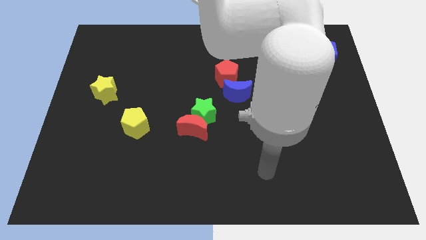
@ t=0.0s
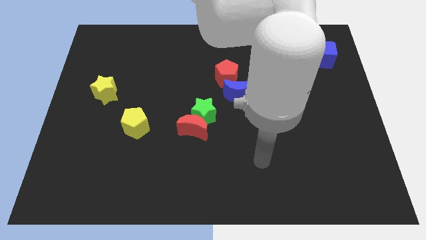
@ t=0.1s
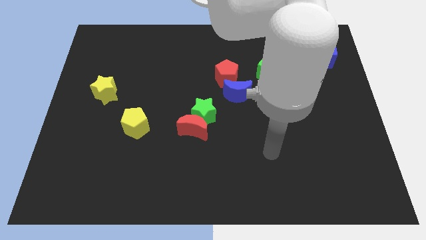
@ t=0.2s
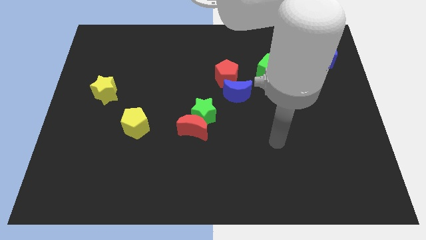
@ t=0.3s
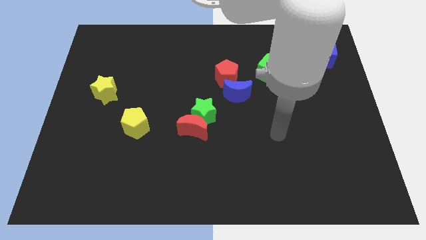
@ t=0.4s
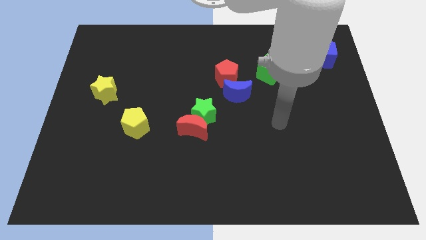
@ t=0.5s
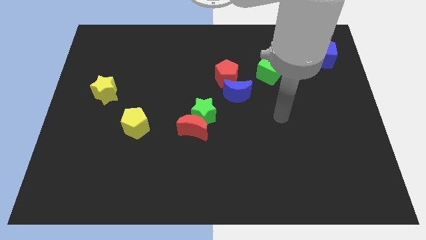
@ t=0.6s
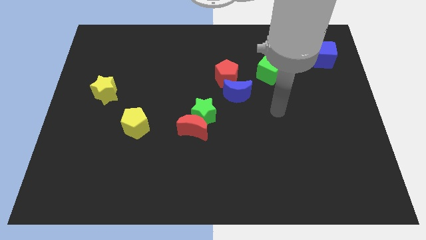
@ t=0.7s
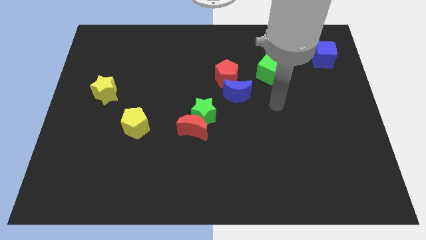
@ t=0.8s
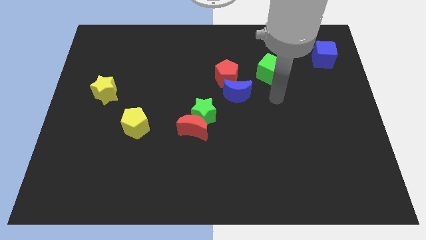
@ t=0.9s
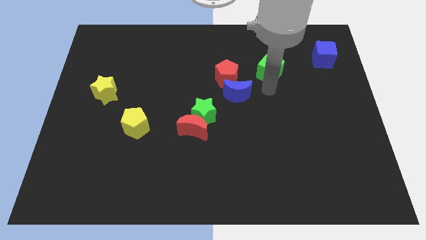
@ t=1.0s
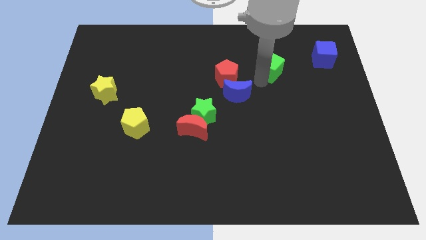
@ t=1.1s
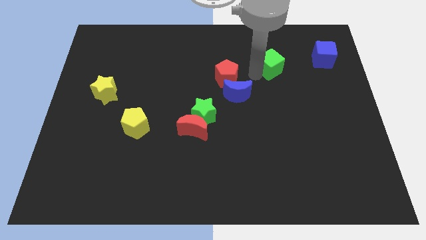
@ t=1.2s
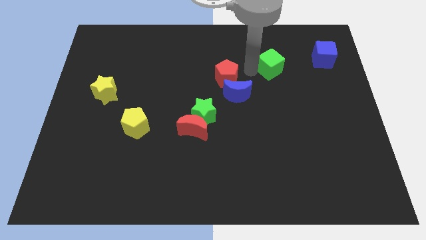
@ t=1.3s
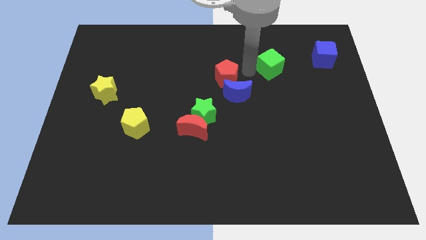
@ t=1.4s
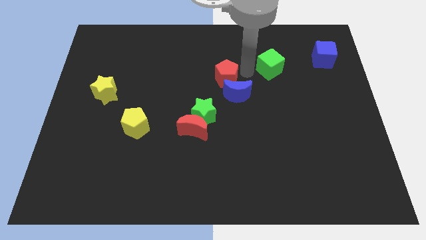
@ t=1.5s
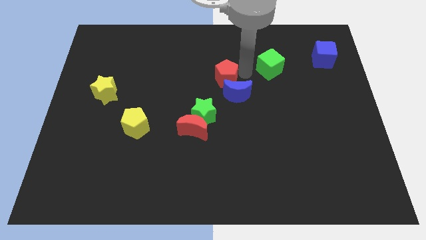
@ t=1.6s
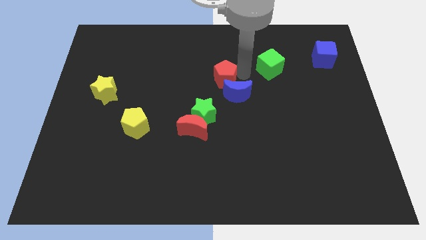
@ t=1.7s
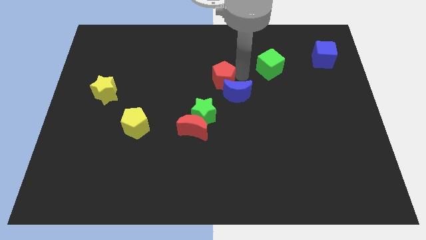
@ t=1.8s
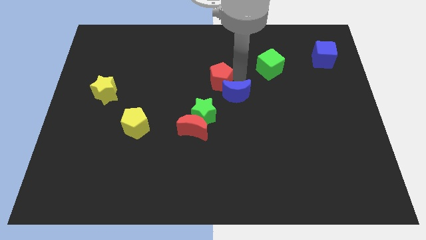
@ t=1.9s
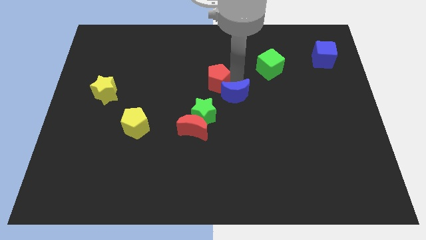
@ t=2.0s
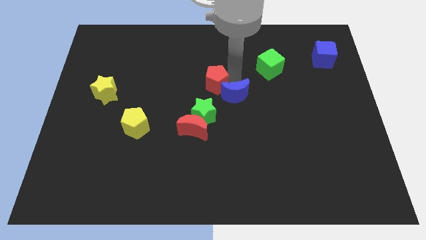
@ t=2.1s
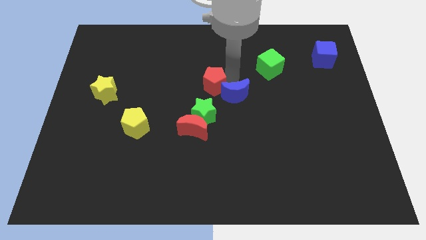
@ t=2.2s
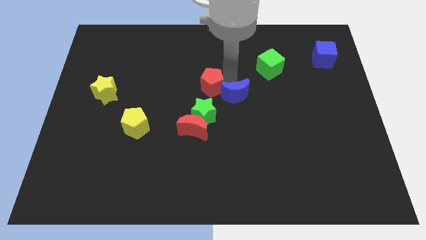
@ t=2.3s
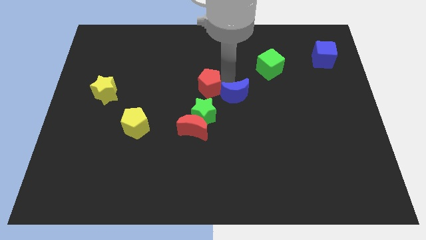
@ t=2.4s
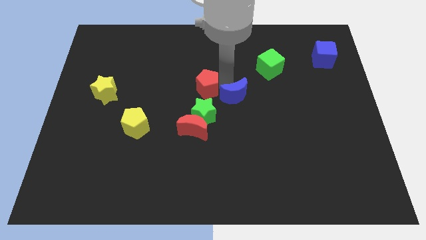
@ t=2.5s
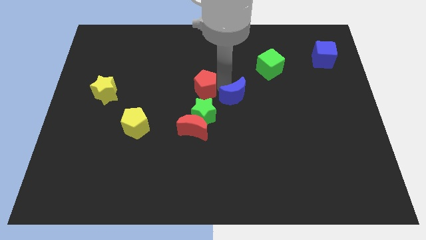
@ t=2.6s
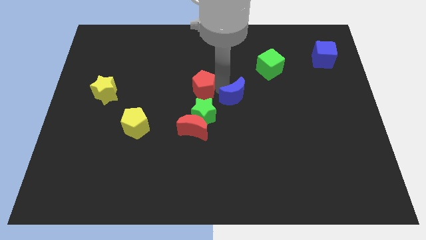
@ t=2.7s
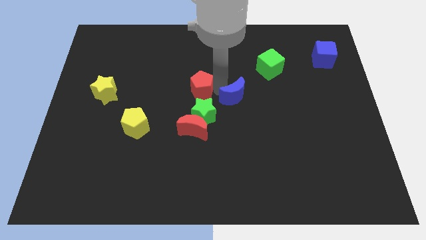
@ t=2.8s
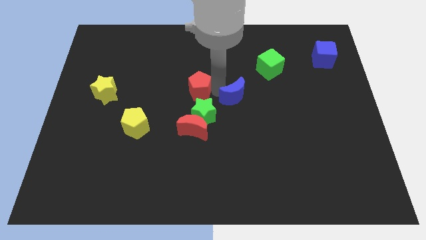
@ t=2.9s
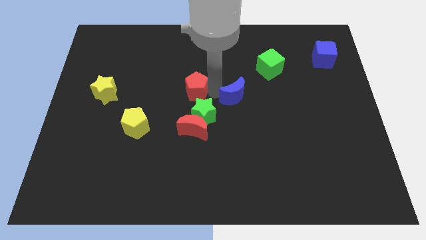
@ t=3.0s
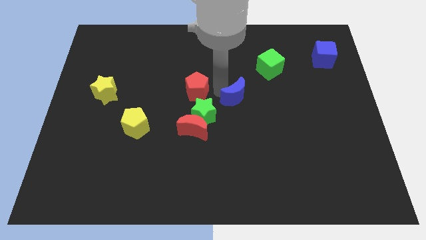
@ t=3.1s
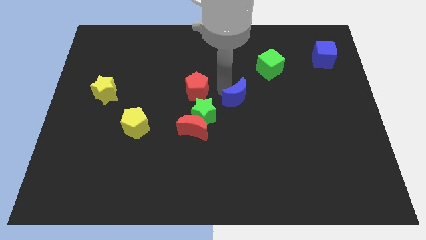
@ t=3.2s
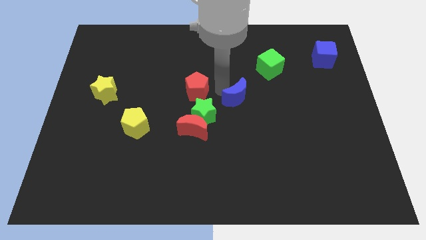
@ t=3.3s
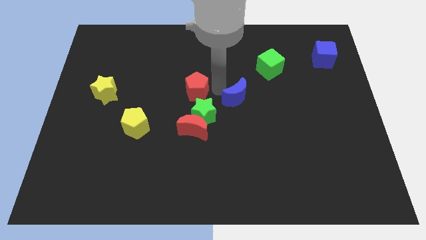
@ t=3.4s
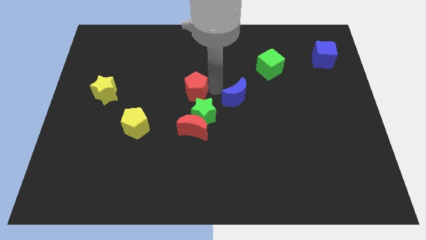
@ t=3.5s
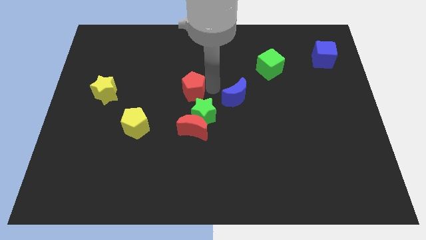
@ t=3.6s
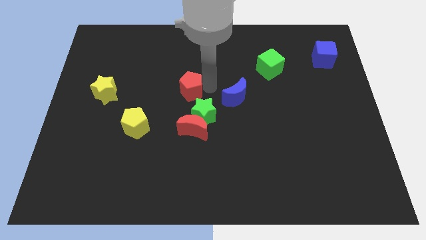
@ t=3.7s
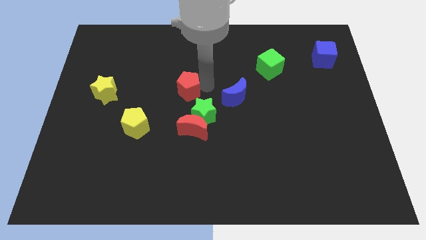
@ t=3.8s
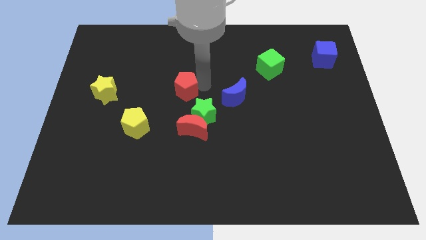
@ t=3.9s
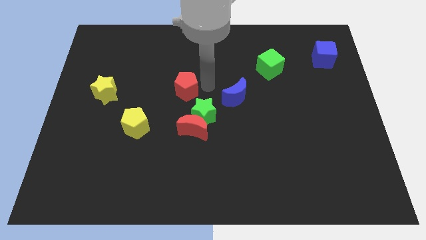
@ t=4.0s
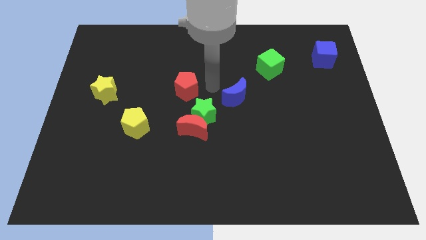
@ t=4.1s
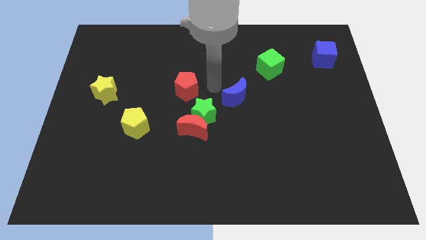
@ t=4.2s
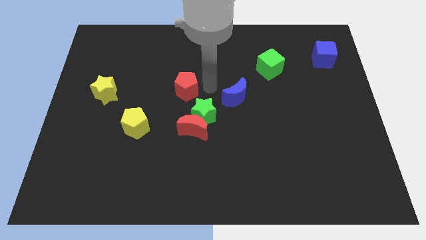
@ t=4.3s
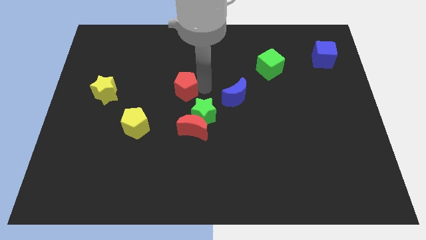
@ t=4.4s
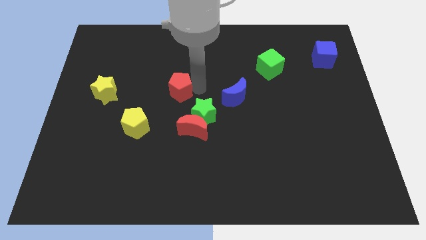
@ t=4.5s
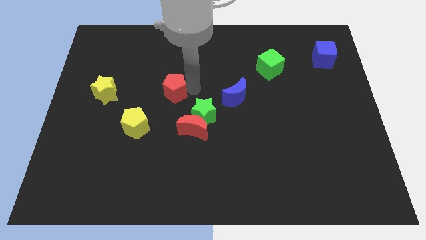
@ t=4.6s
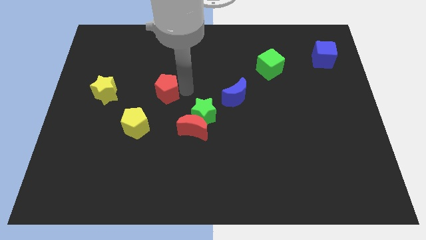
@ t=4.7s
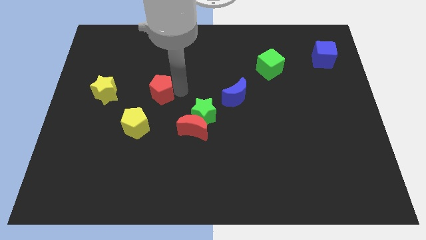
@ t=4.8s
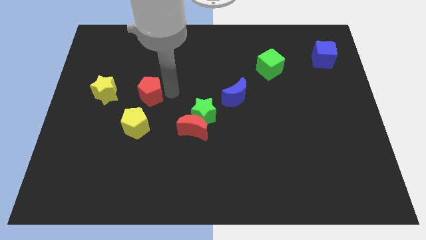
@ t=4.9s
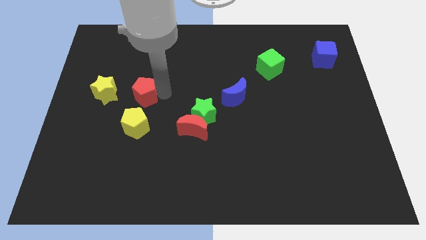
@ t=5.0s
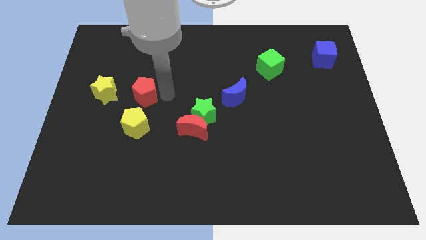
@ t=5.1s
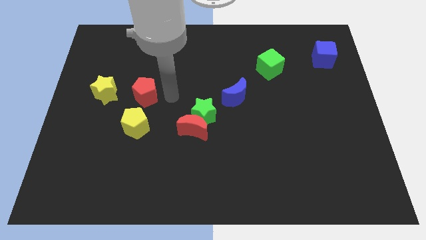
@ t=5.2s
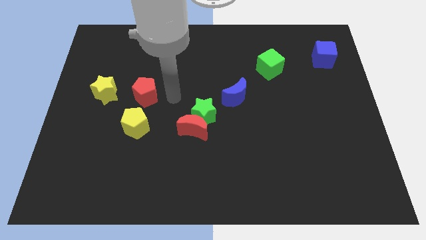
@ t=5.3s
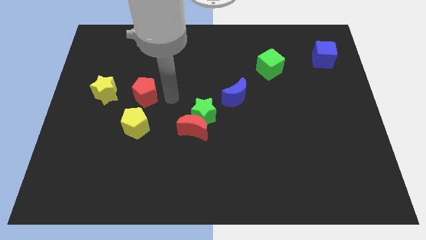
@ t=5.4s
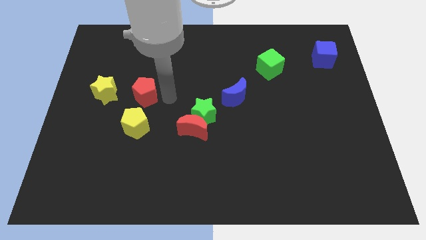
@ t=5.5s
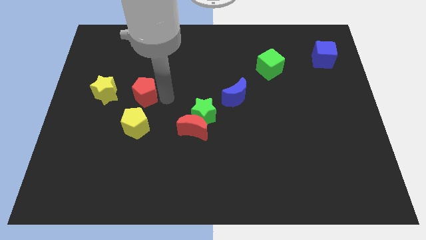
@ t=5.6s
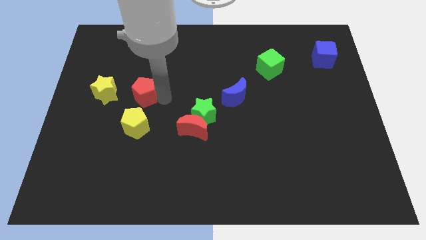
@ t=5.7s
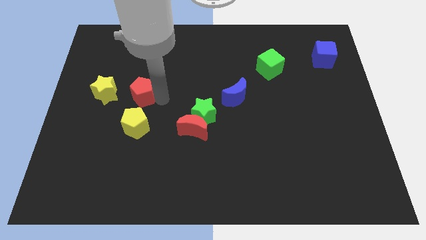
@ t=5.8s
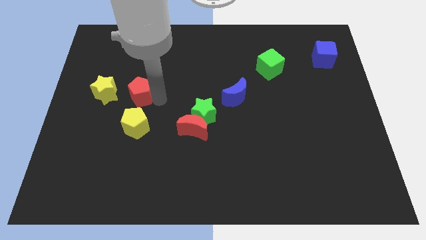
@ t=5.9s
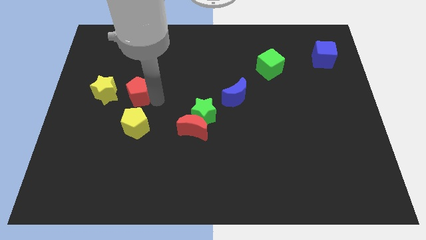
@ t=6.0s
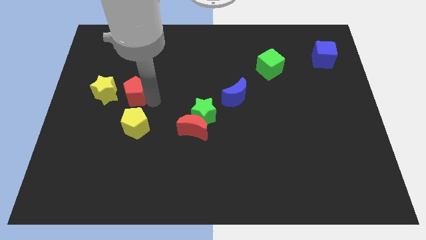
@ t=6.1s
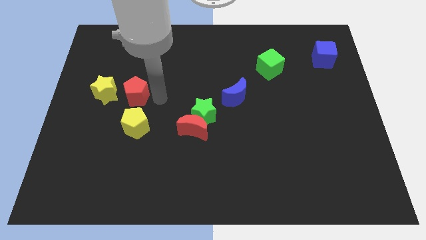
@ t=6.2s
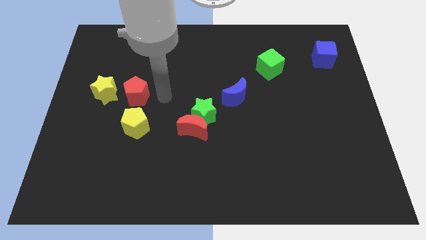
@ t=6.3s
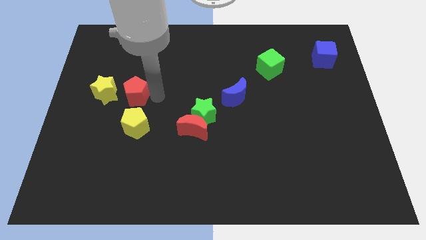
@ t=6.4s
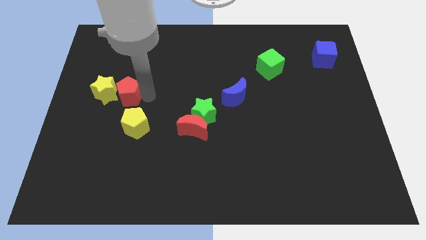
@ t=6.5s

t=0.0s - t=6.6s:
put the red pentagon towards the yellow star

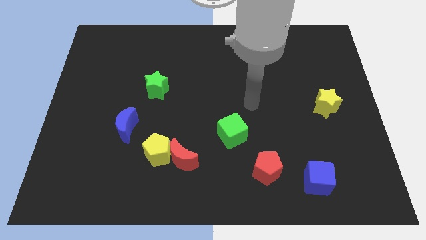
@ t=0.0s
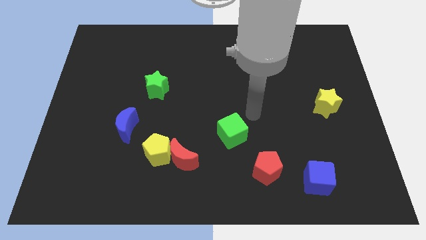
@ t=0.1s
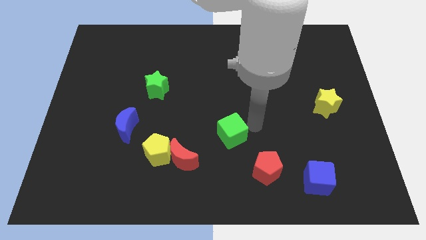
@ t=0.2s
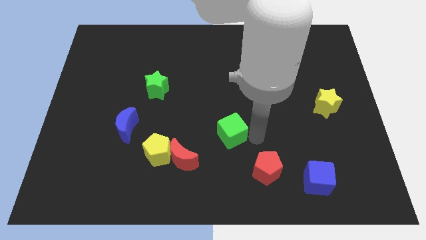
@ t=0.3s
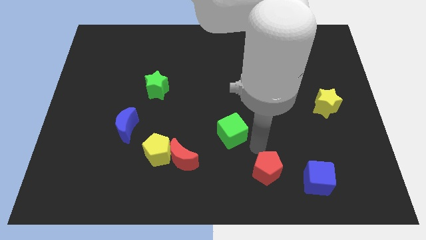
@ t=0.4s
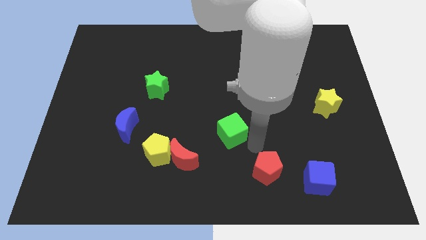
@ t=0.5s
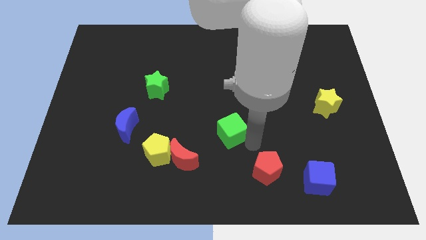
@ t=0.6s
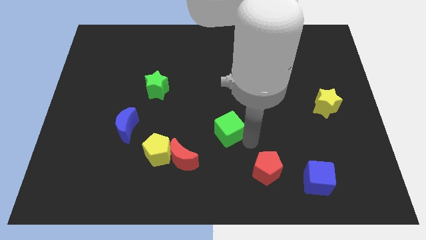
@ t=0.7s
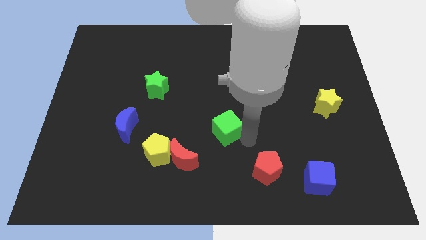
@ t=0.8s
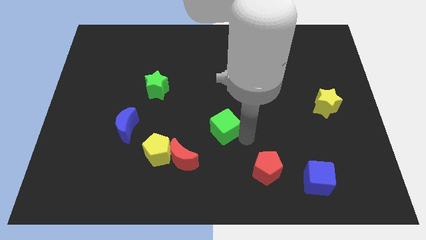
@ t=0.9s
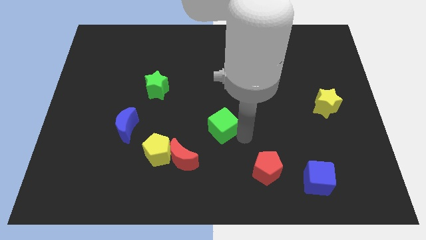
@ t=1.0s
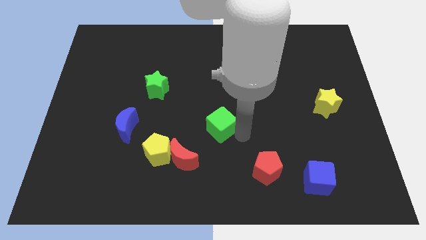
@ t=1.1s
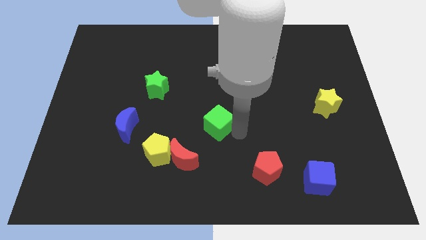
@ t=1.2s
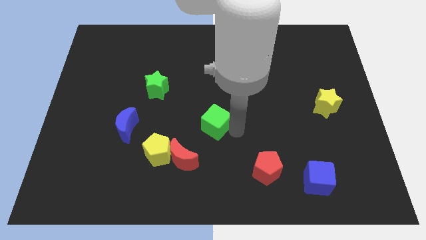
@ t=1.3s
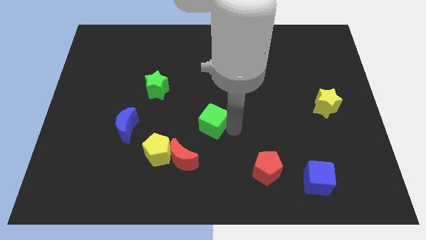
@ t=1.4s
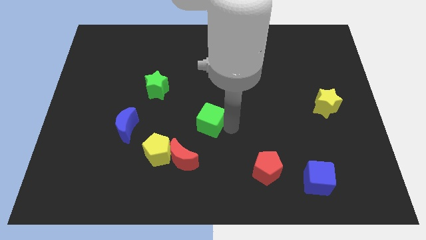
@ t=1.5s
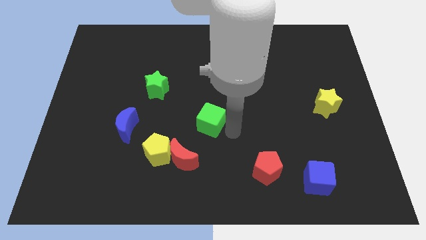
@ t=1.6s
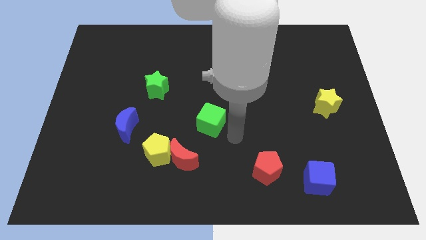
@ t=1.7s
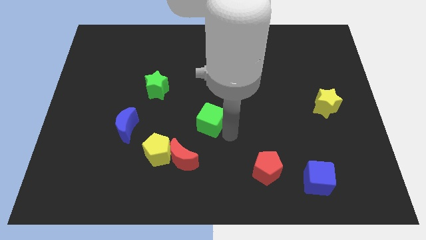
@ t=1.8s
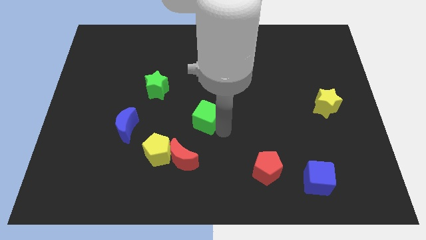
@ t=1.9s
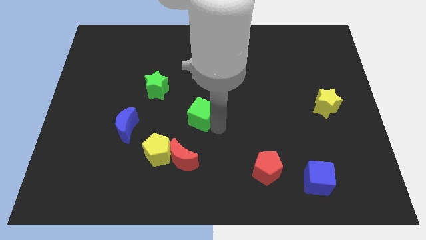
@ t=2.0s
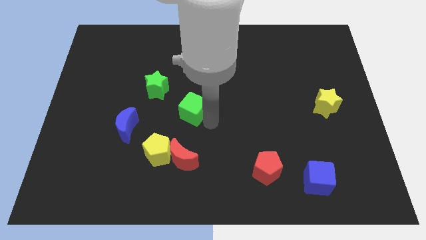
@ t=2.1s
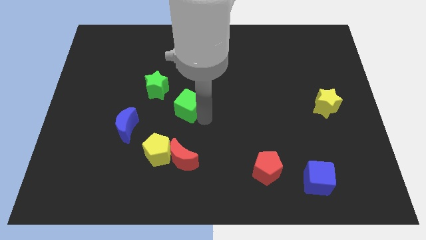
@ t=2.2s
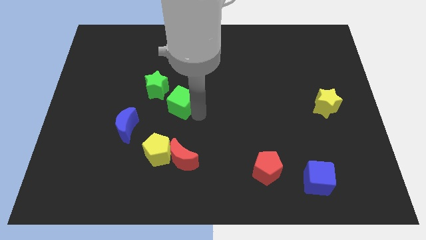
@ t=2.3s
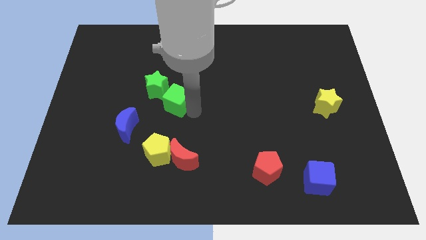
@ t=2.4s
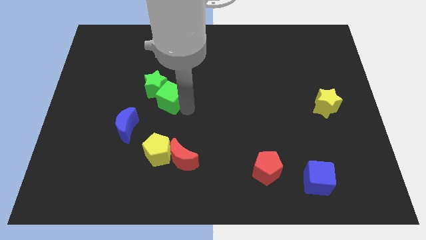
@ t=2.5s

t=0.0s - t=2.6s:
put the green cube close to the green star
